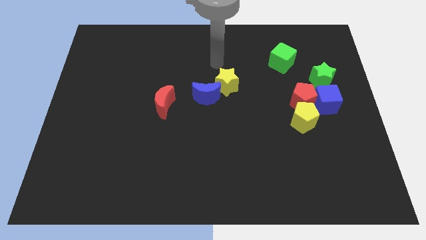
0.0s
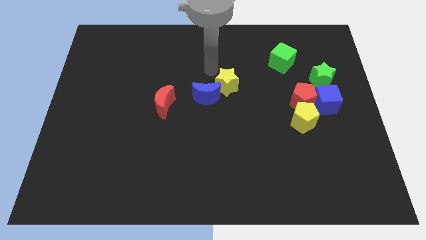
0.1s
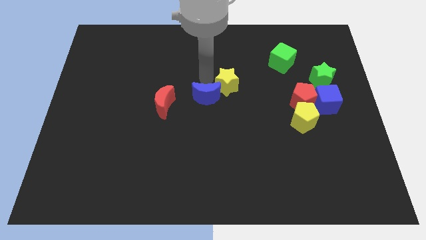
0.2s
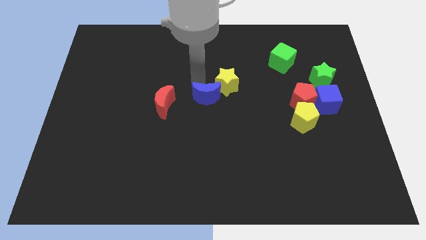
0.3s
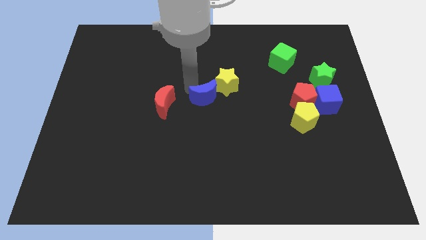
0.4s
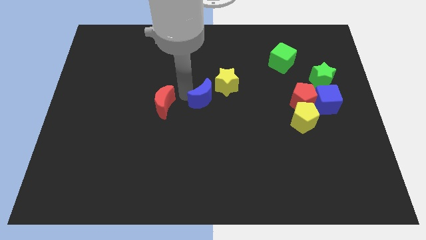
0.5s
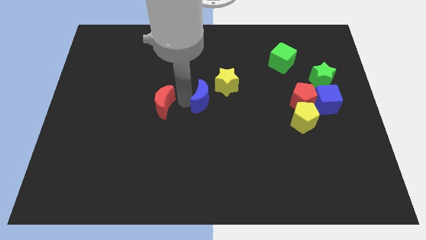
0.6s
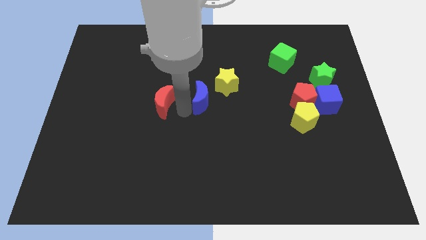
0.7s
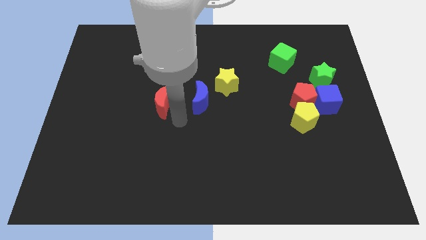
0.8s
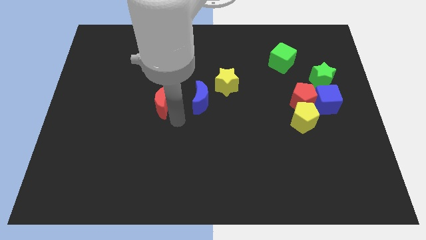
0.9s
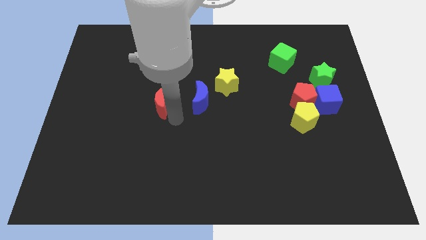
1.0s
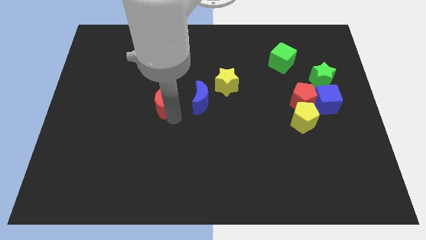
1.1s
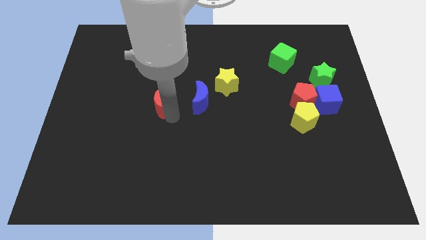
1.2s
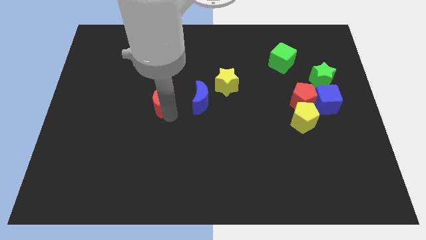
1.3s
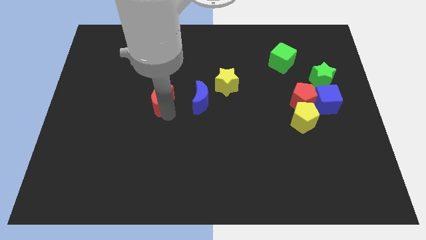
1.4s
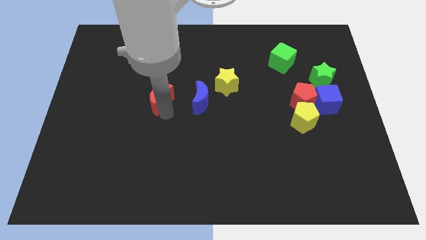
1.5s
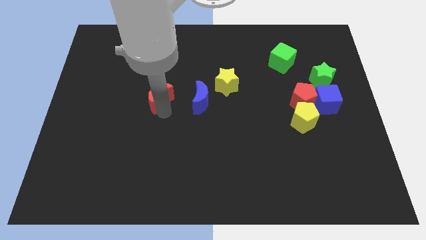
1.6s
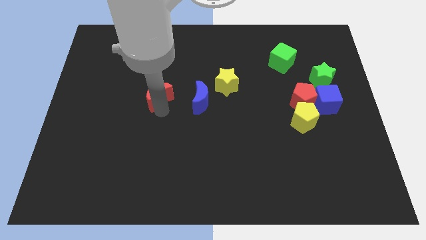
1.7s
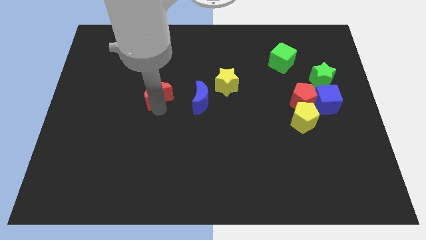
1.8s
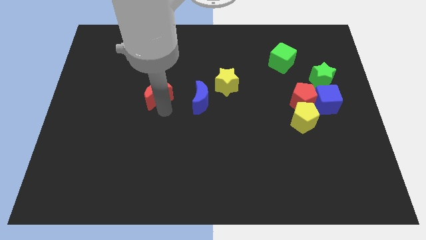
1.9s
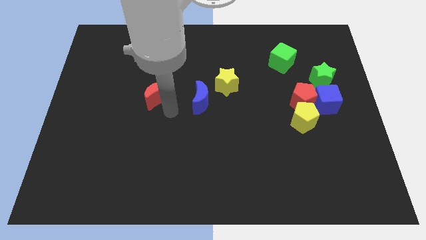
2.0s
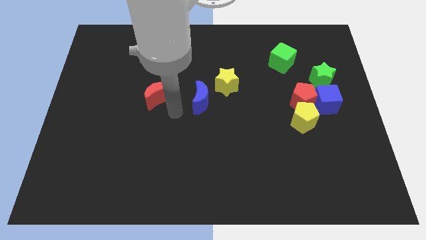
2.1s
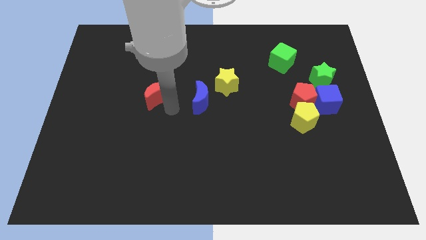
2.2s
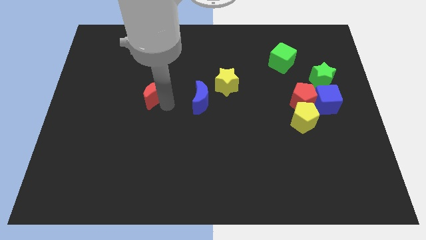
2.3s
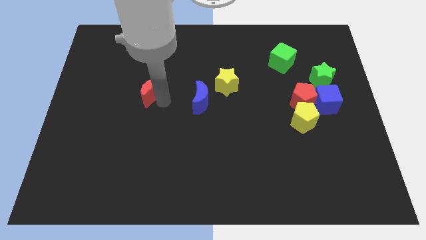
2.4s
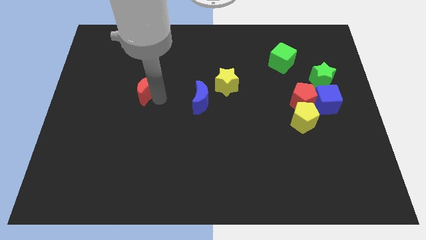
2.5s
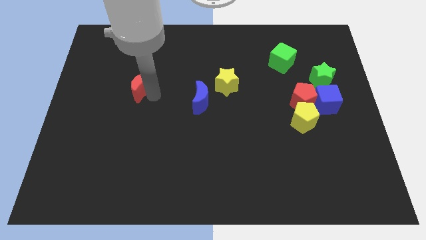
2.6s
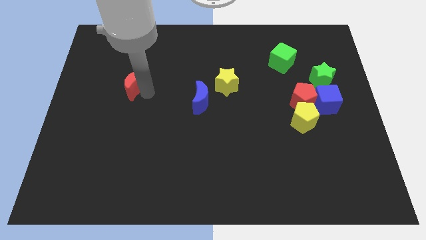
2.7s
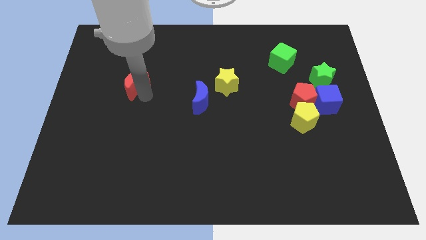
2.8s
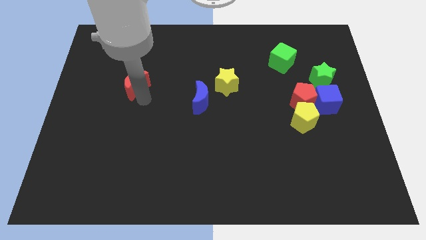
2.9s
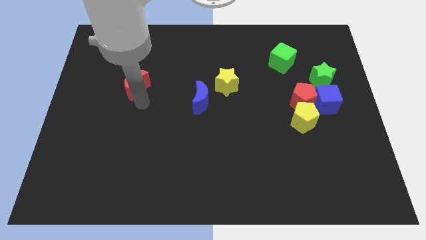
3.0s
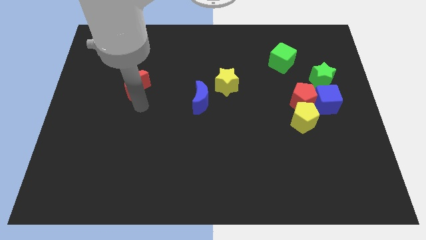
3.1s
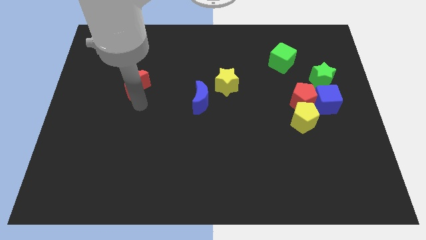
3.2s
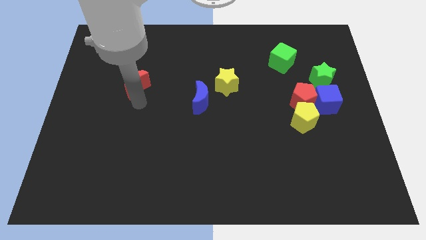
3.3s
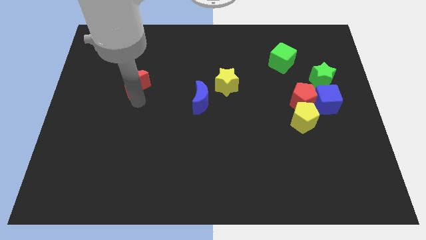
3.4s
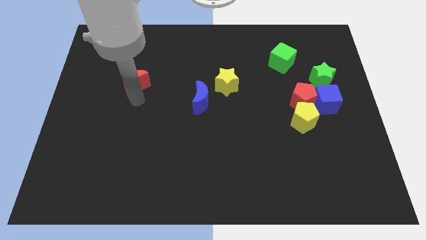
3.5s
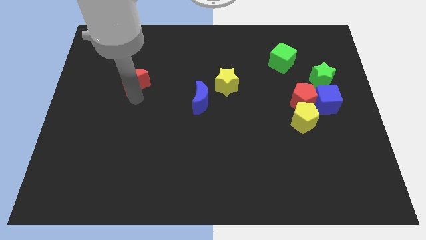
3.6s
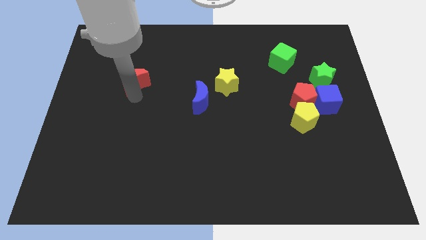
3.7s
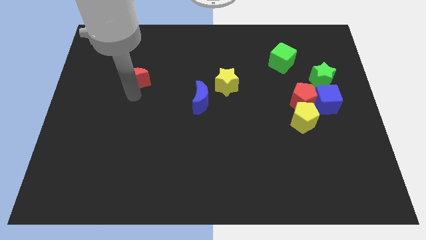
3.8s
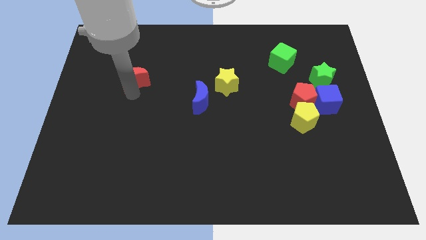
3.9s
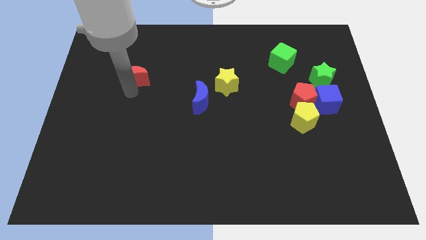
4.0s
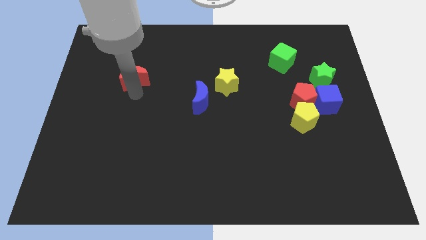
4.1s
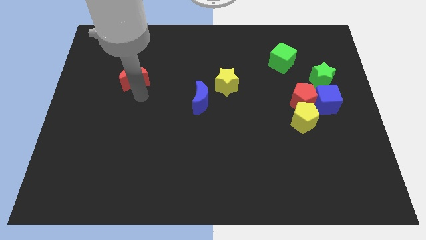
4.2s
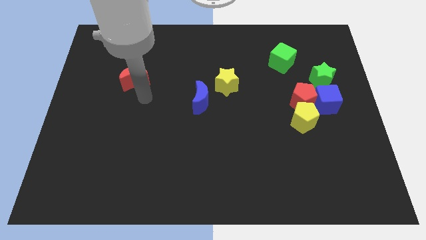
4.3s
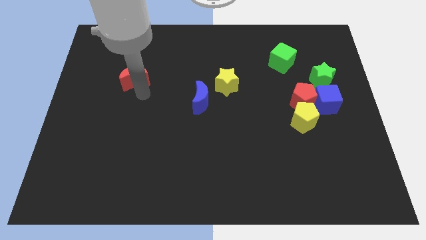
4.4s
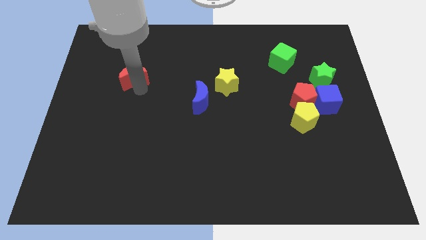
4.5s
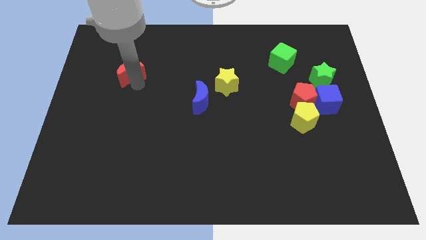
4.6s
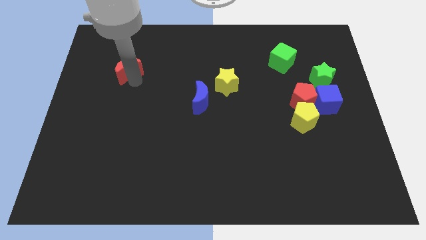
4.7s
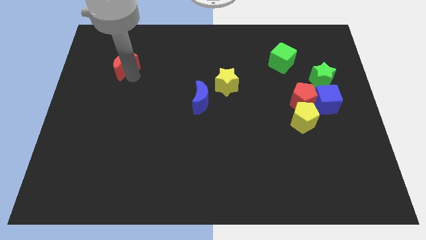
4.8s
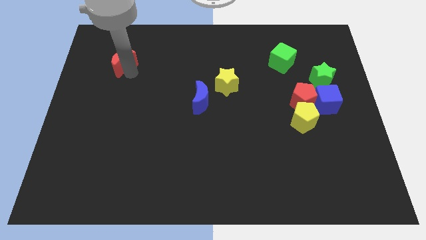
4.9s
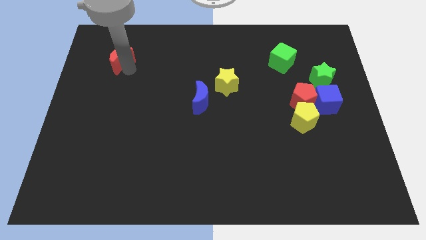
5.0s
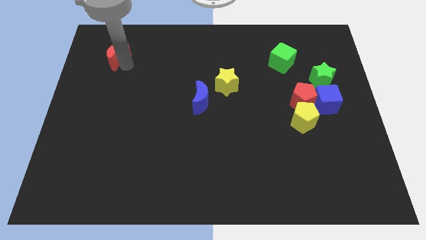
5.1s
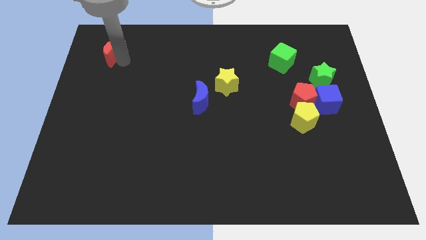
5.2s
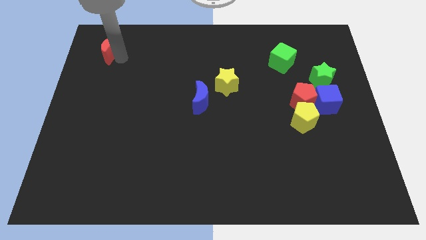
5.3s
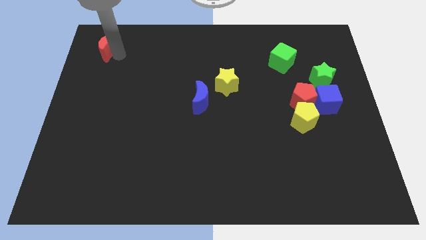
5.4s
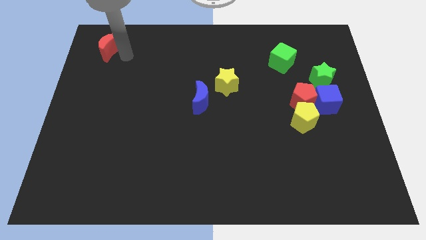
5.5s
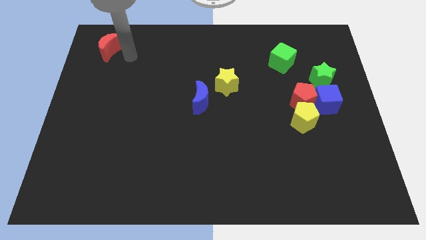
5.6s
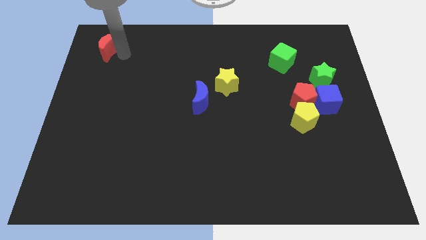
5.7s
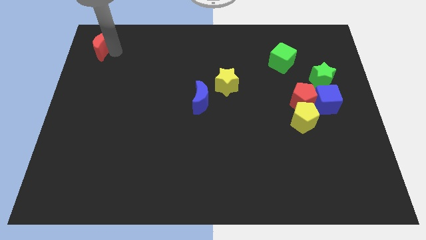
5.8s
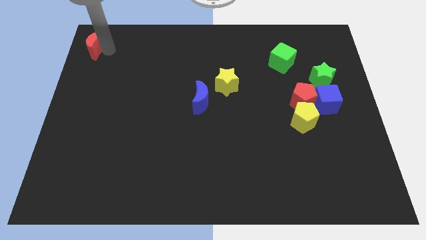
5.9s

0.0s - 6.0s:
slide the red moon to the top left of the board
